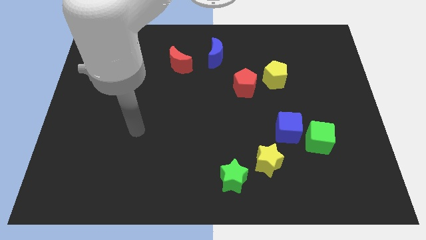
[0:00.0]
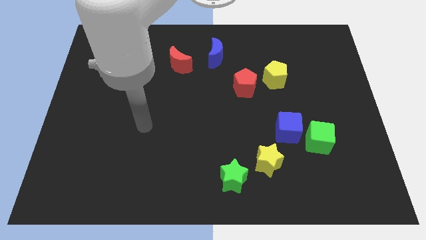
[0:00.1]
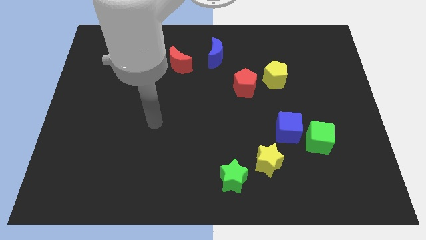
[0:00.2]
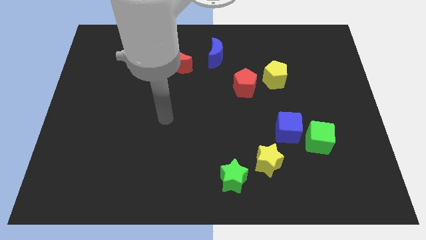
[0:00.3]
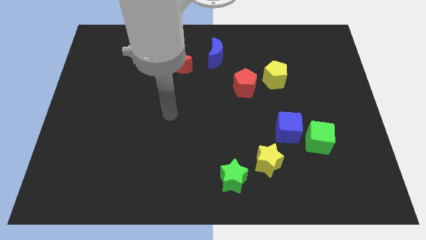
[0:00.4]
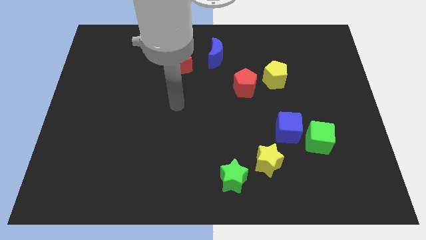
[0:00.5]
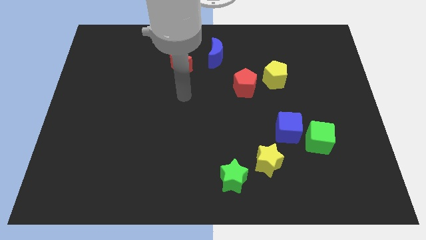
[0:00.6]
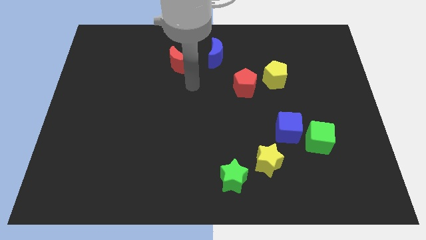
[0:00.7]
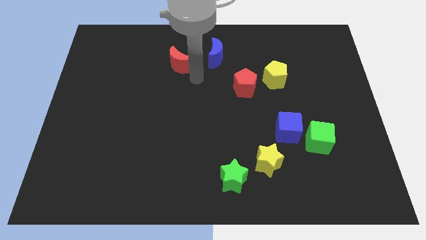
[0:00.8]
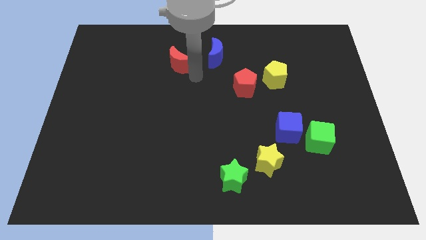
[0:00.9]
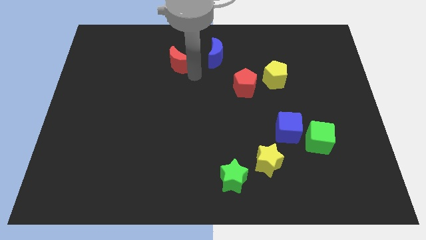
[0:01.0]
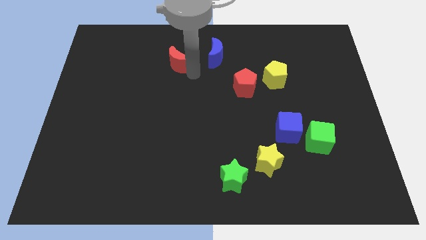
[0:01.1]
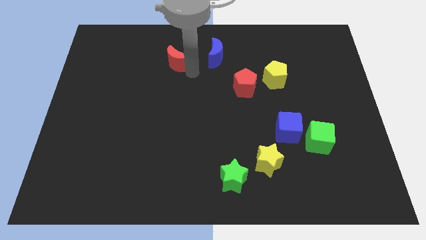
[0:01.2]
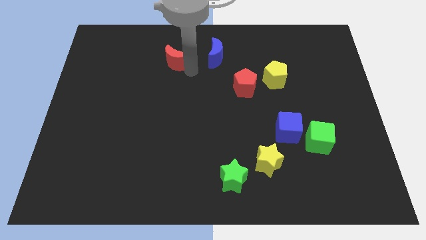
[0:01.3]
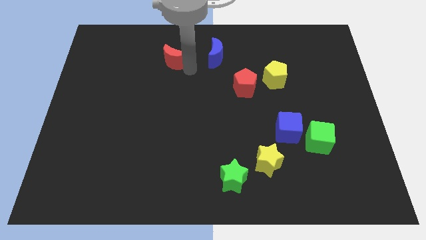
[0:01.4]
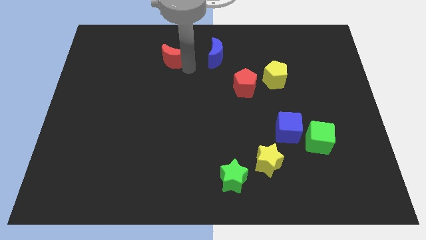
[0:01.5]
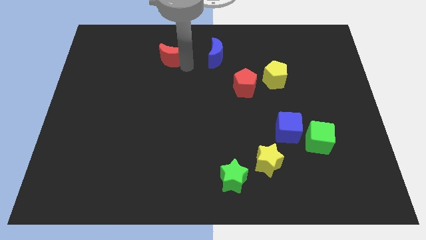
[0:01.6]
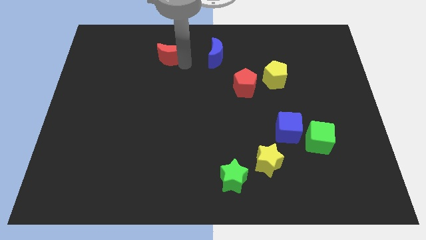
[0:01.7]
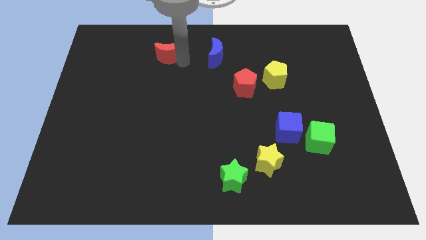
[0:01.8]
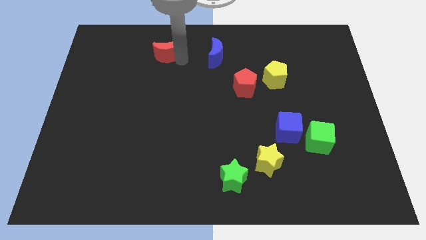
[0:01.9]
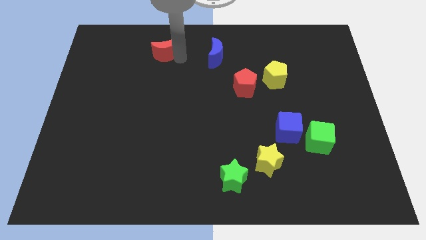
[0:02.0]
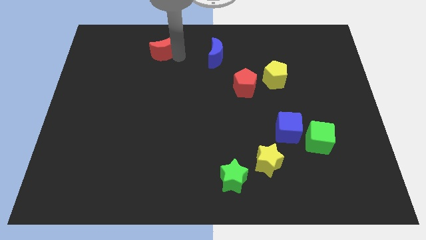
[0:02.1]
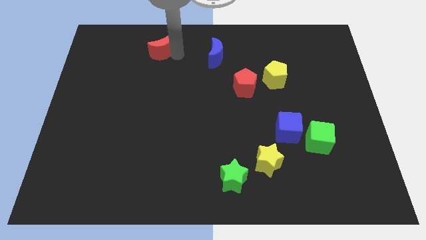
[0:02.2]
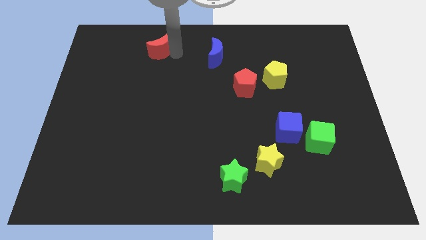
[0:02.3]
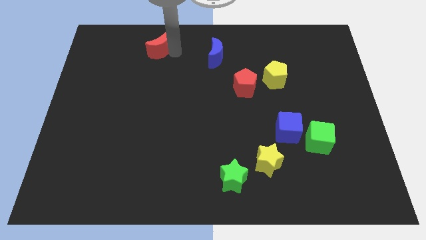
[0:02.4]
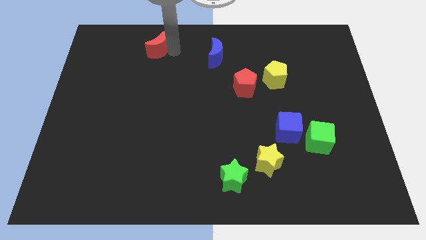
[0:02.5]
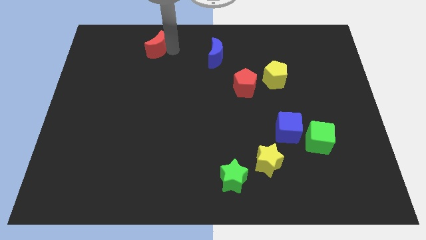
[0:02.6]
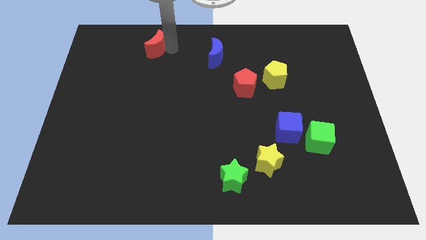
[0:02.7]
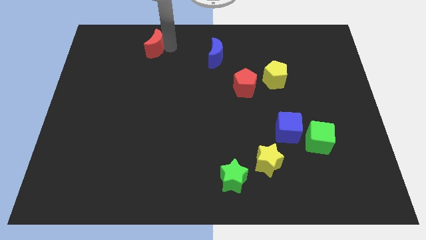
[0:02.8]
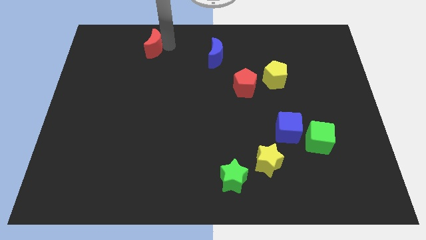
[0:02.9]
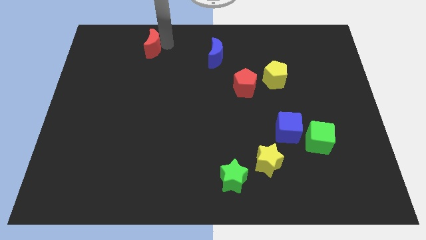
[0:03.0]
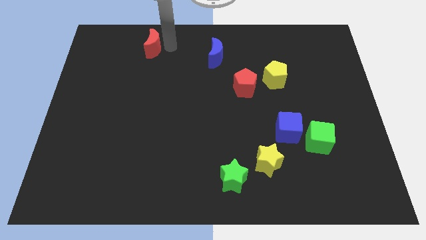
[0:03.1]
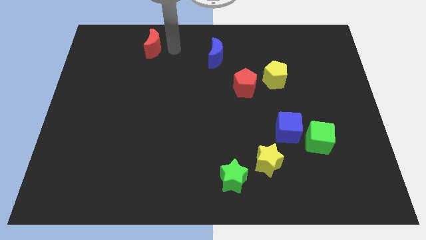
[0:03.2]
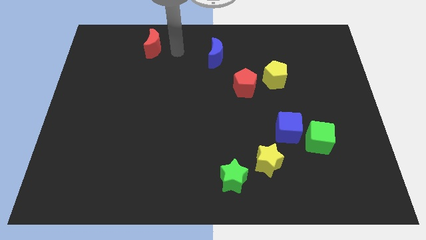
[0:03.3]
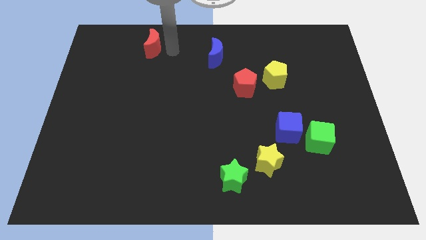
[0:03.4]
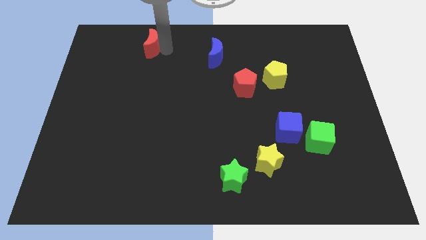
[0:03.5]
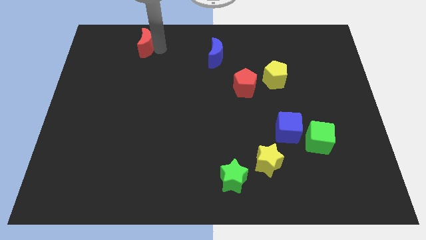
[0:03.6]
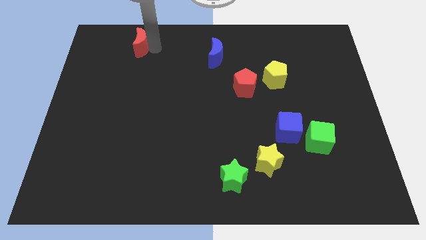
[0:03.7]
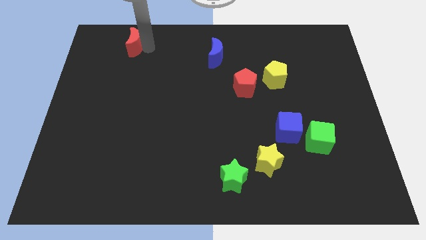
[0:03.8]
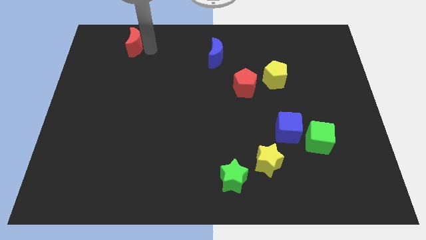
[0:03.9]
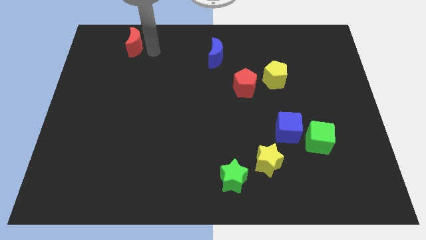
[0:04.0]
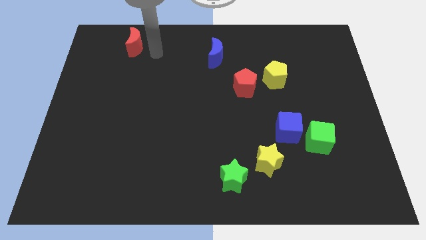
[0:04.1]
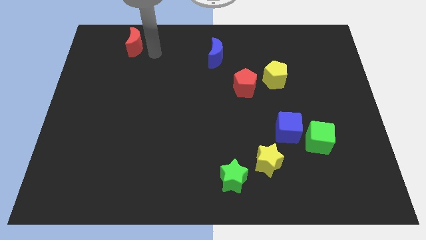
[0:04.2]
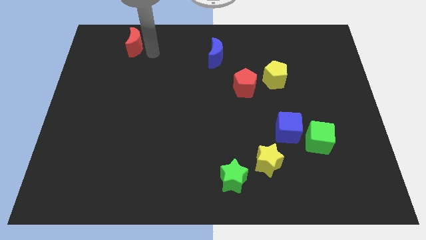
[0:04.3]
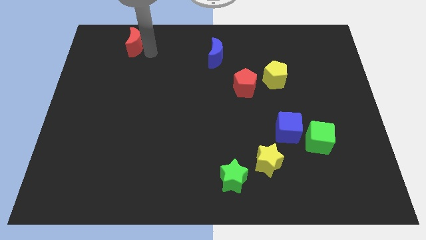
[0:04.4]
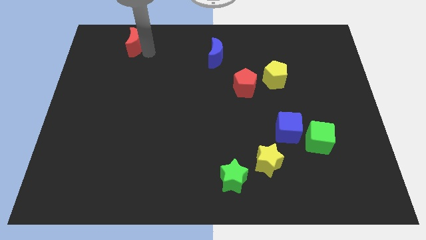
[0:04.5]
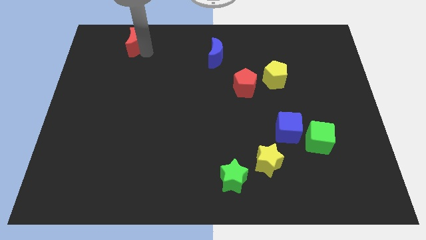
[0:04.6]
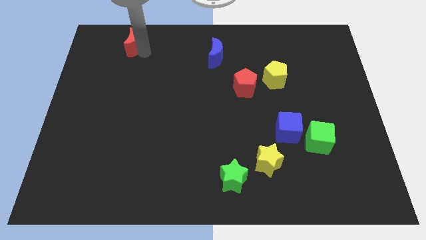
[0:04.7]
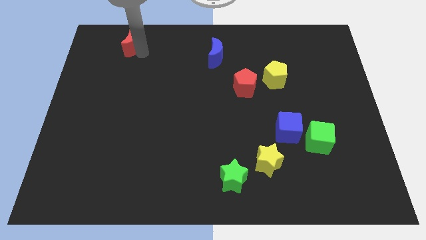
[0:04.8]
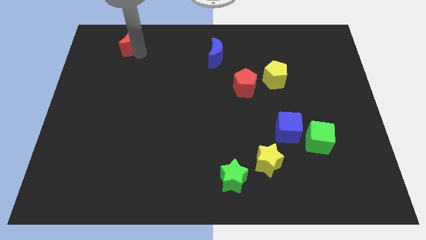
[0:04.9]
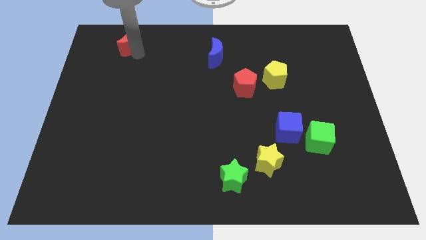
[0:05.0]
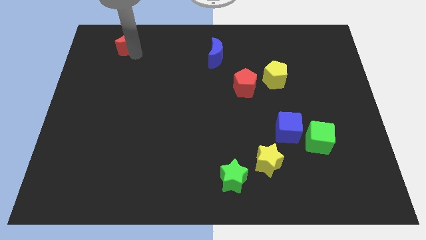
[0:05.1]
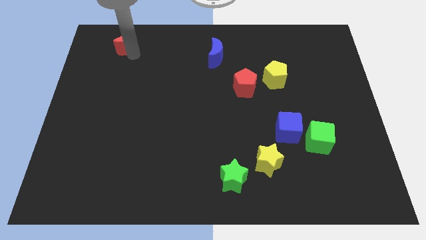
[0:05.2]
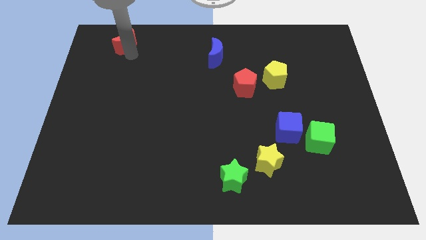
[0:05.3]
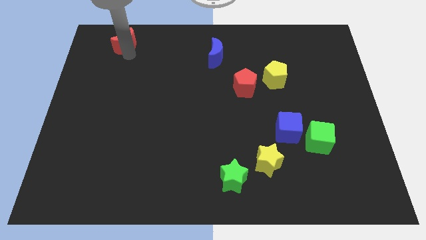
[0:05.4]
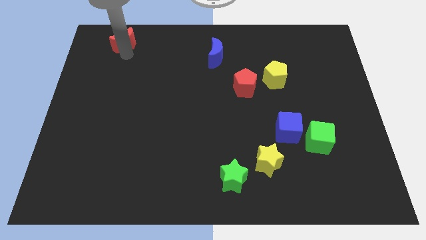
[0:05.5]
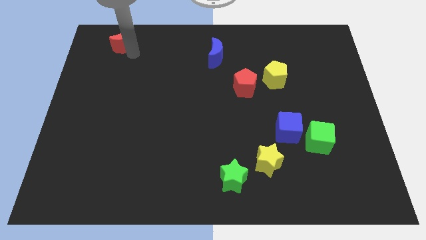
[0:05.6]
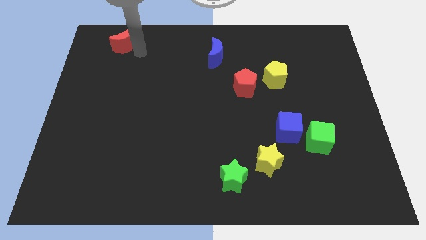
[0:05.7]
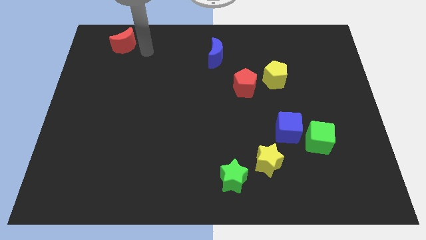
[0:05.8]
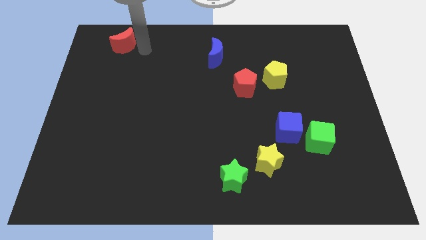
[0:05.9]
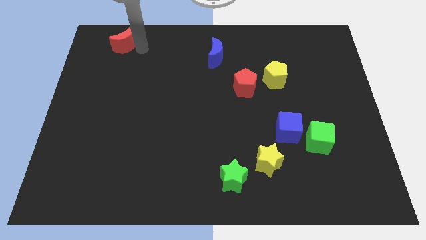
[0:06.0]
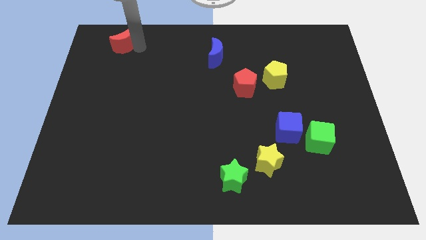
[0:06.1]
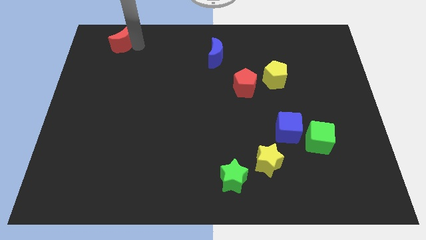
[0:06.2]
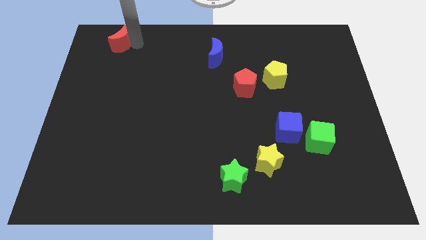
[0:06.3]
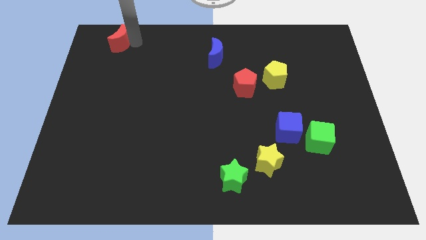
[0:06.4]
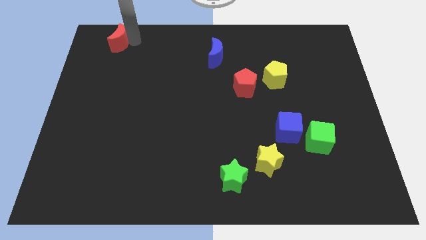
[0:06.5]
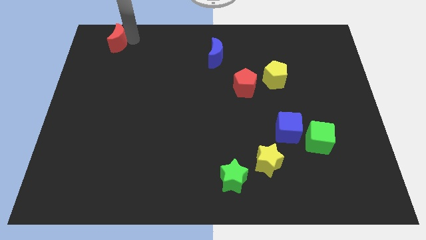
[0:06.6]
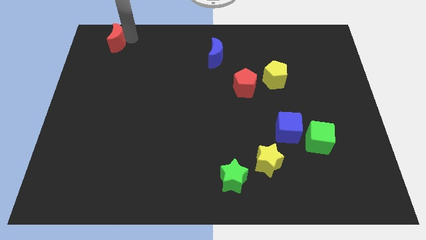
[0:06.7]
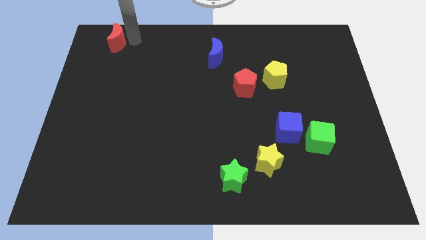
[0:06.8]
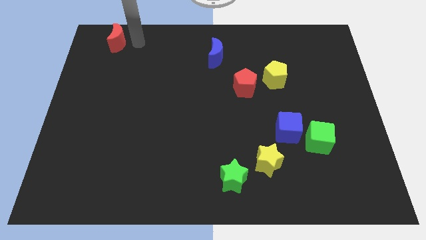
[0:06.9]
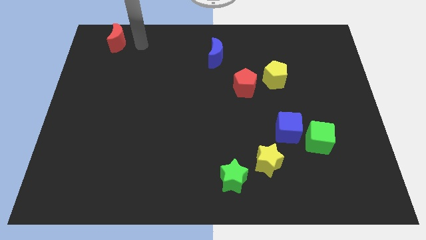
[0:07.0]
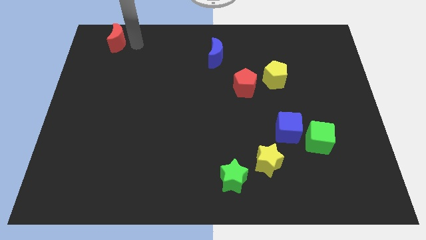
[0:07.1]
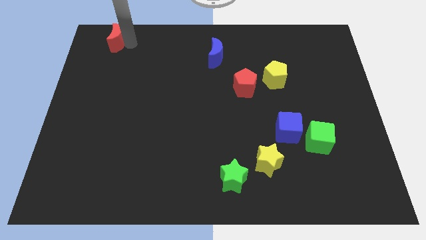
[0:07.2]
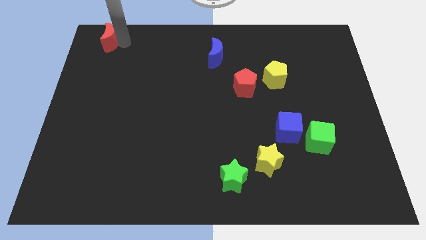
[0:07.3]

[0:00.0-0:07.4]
push the red moon to the upper left corner

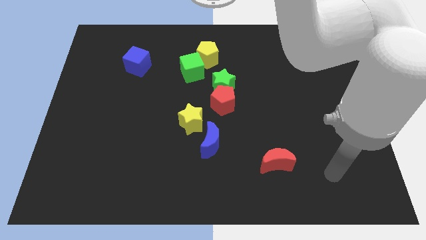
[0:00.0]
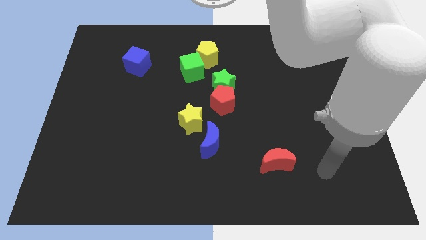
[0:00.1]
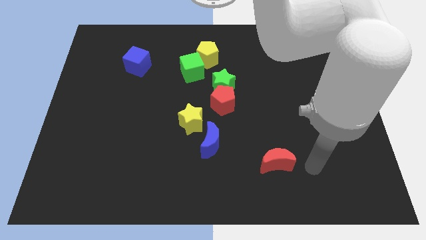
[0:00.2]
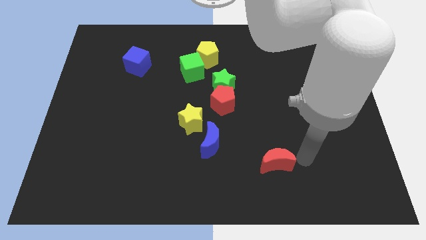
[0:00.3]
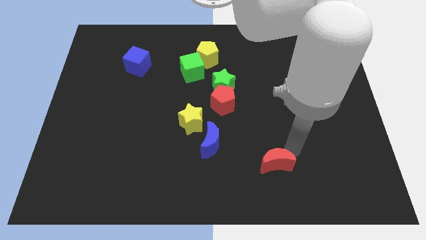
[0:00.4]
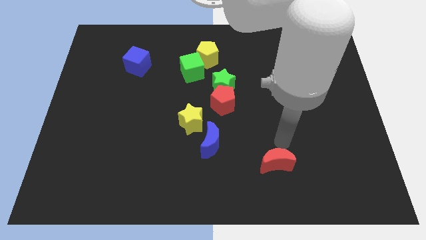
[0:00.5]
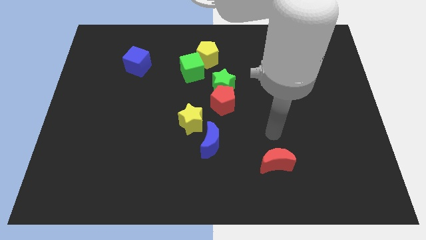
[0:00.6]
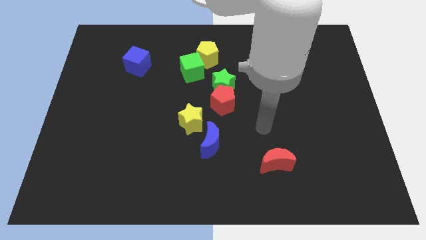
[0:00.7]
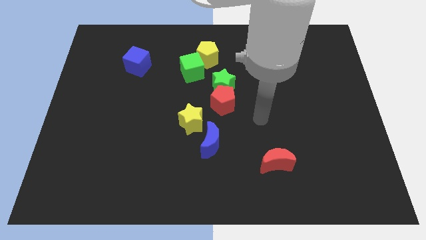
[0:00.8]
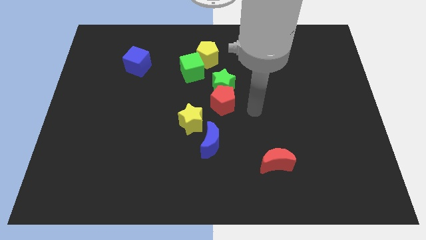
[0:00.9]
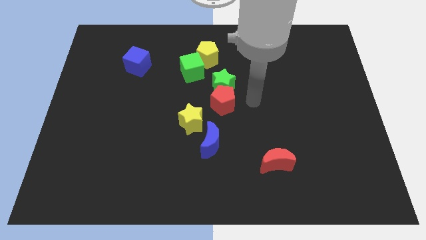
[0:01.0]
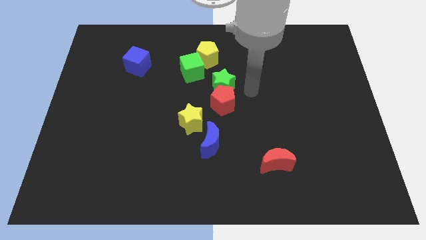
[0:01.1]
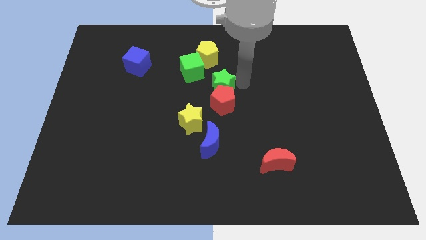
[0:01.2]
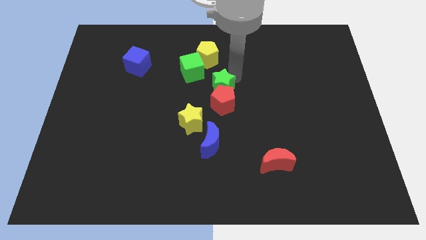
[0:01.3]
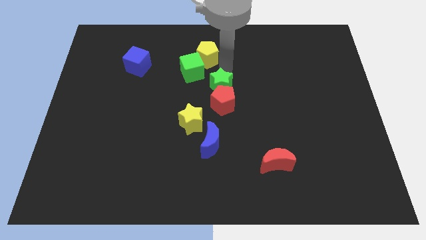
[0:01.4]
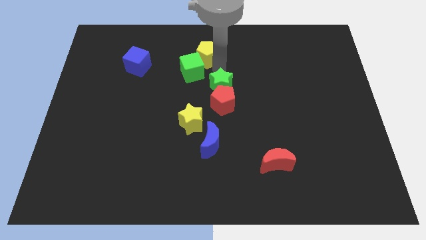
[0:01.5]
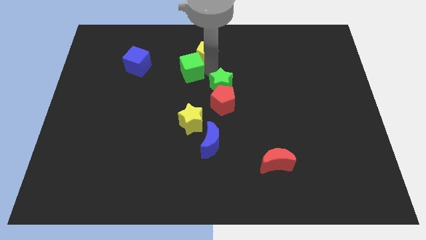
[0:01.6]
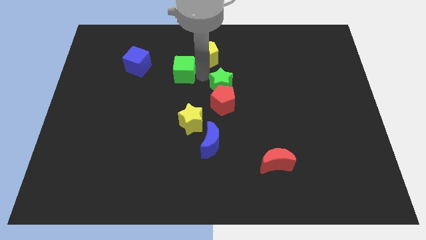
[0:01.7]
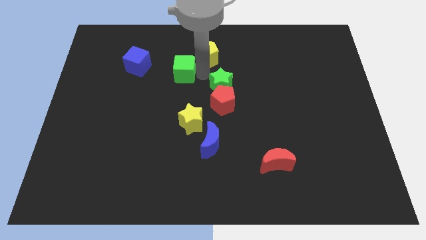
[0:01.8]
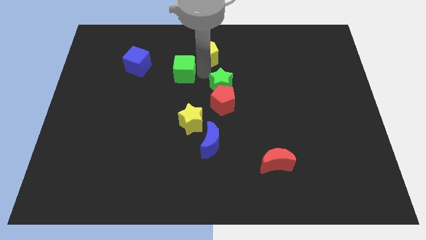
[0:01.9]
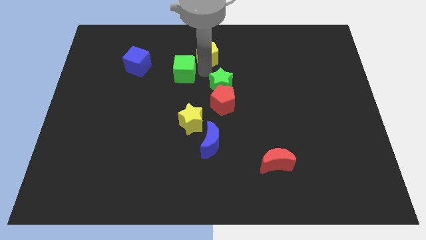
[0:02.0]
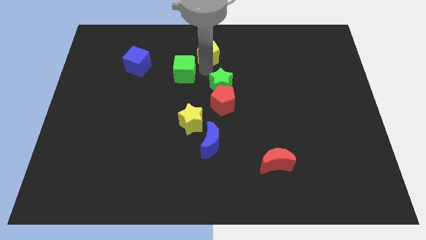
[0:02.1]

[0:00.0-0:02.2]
put the yellow pentagon to the top side
